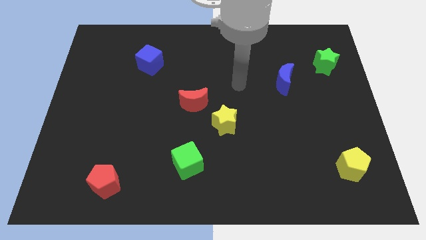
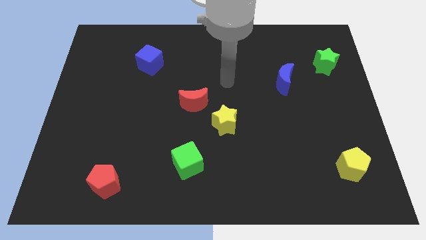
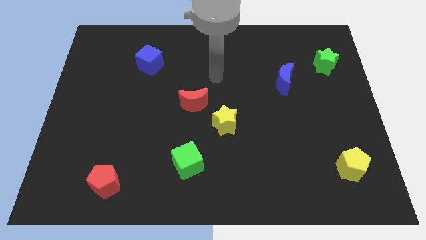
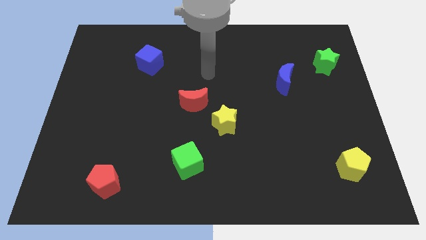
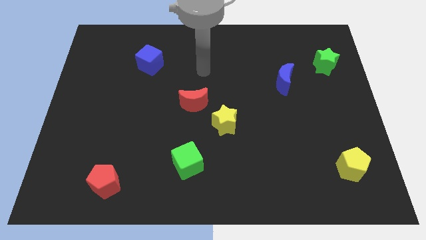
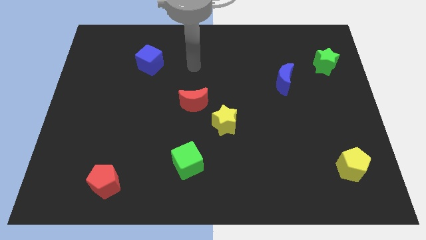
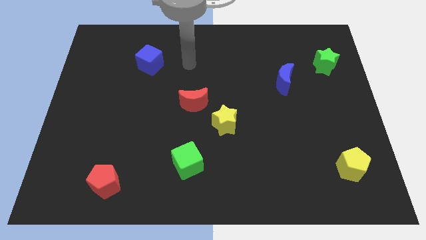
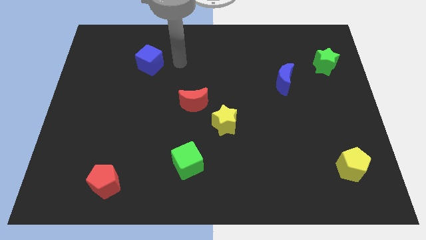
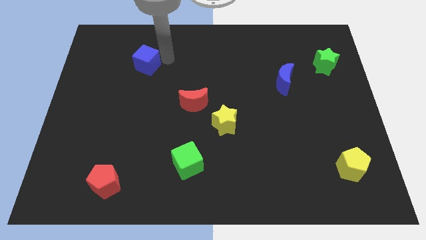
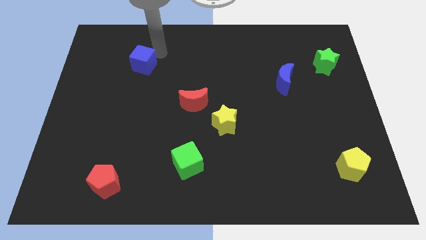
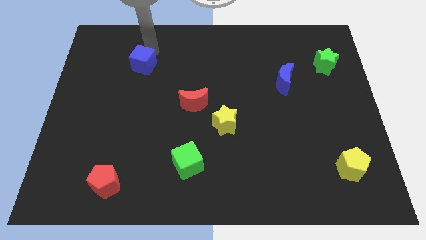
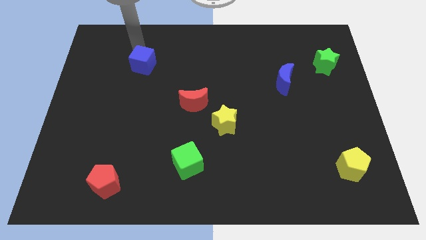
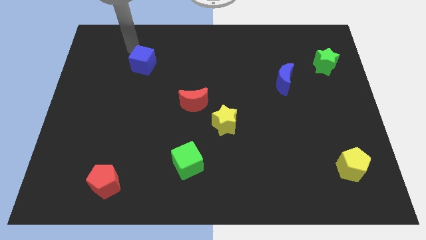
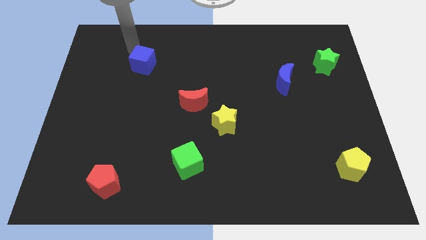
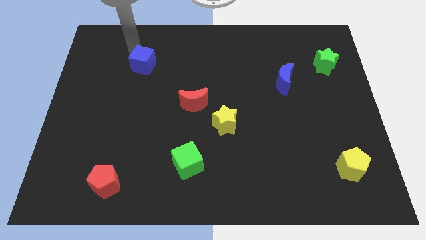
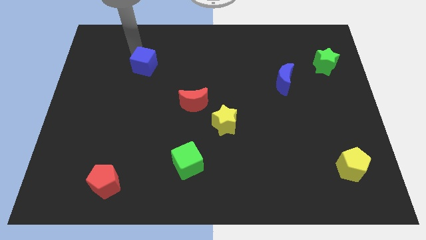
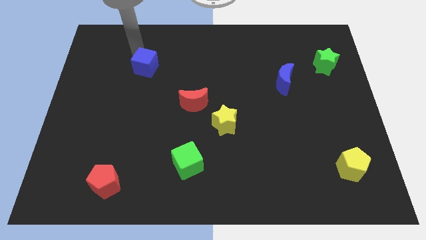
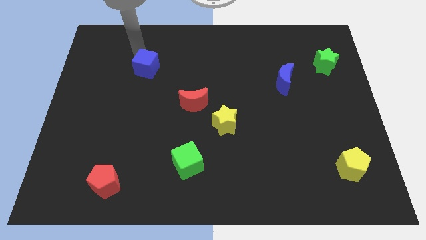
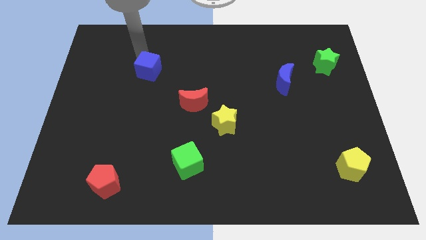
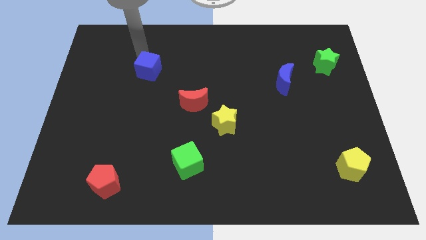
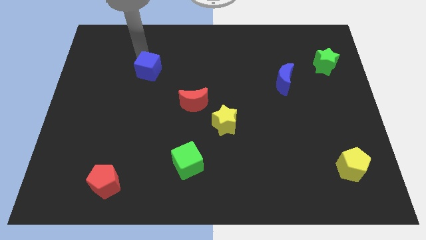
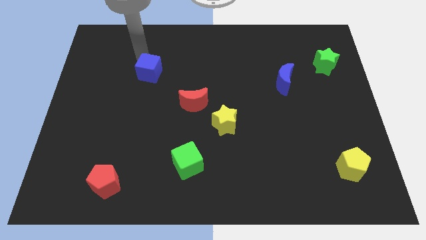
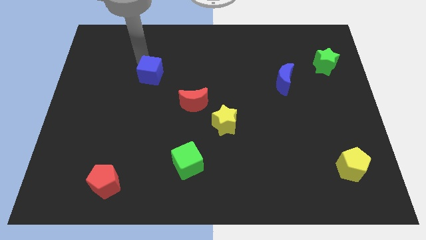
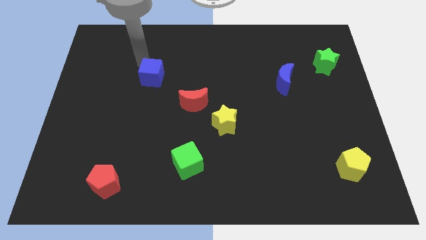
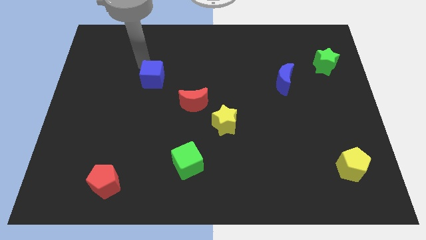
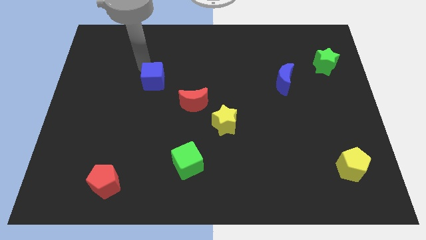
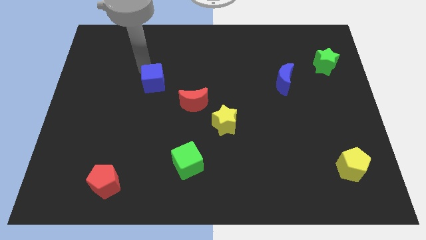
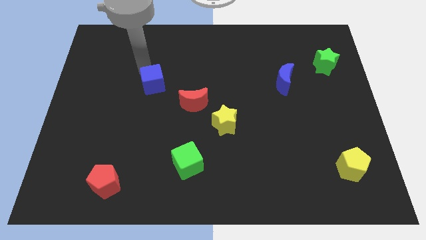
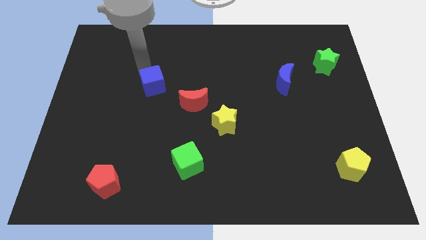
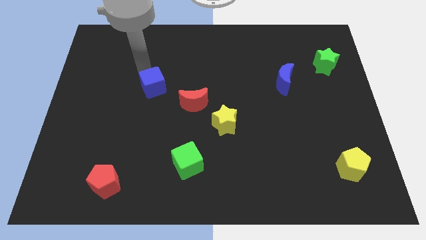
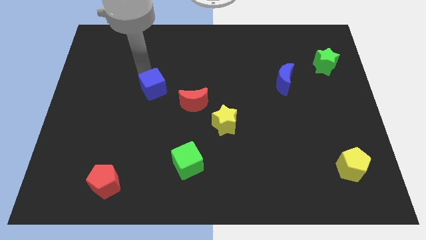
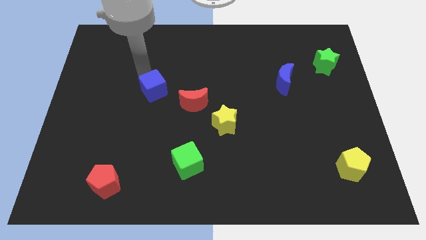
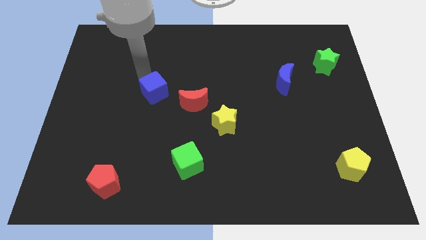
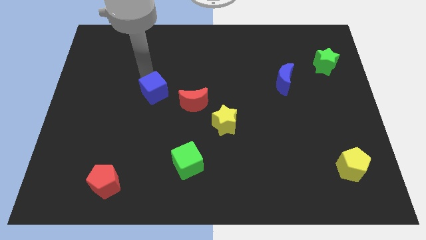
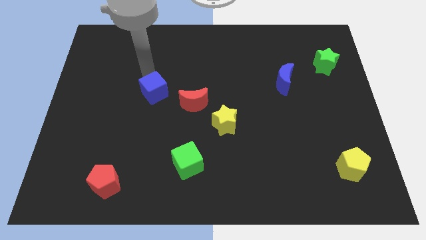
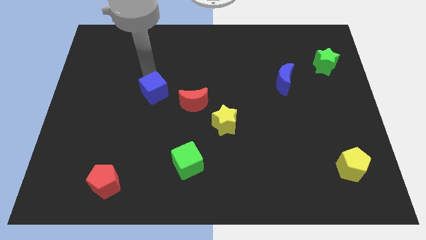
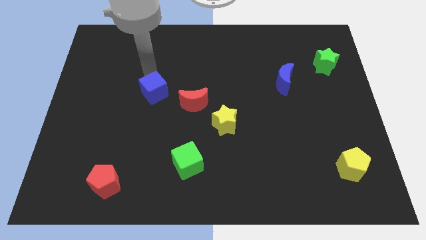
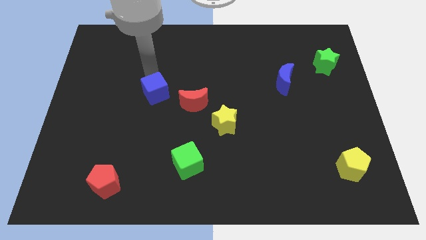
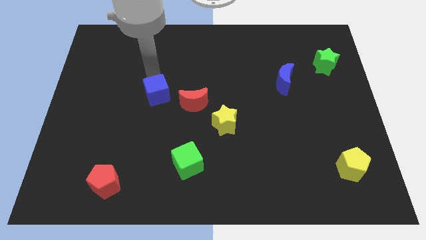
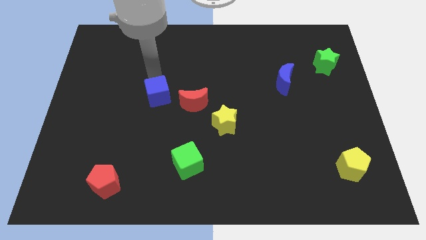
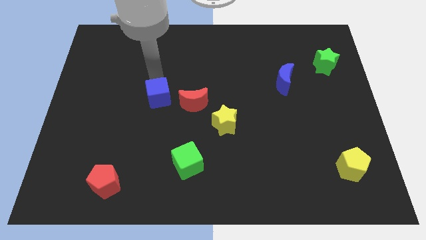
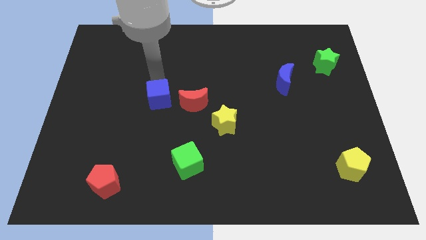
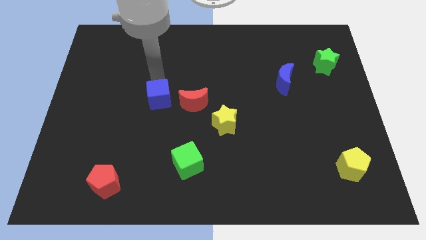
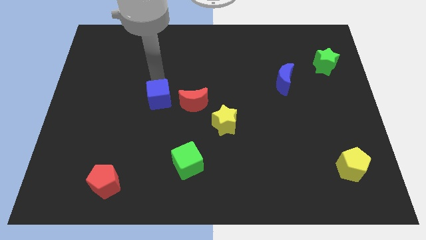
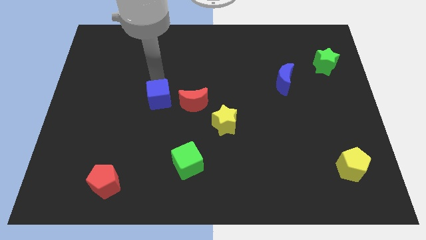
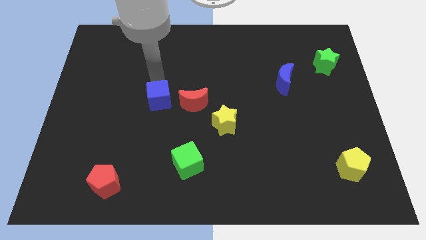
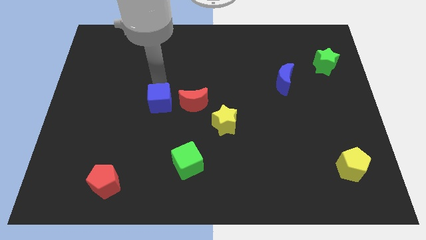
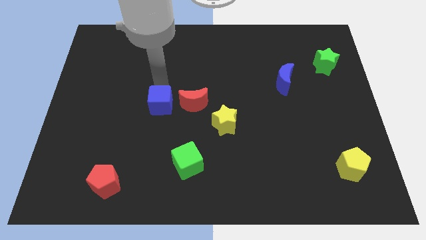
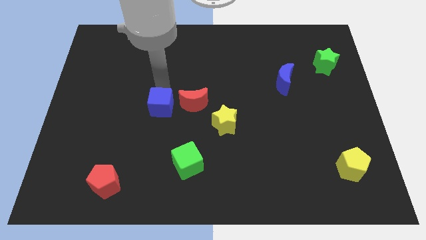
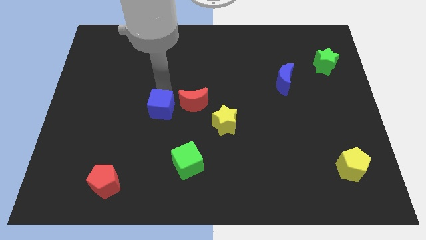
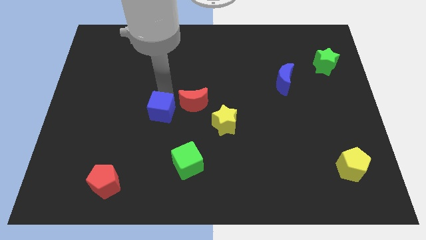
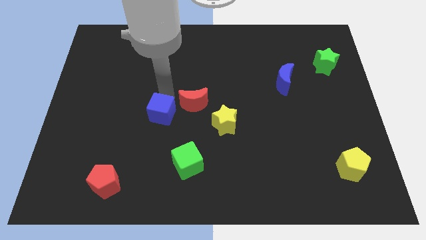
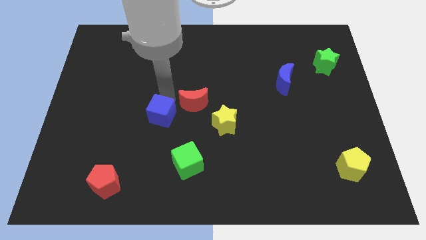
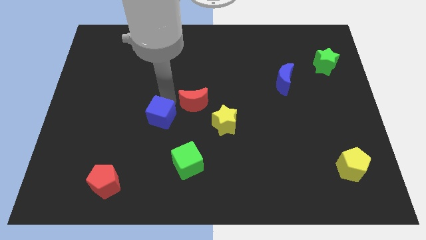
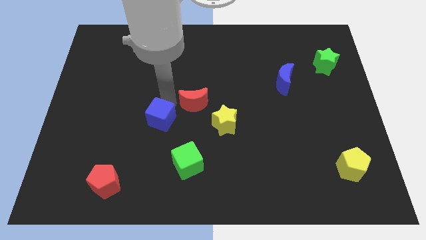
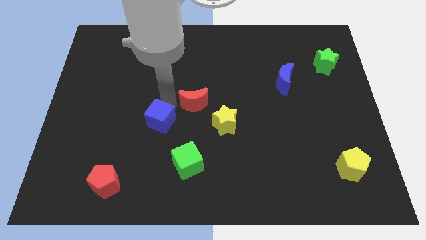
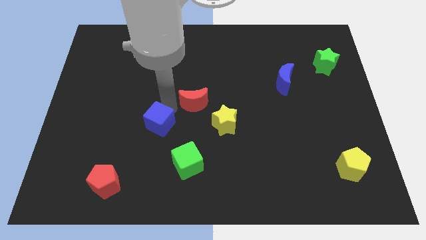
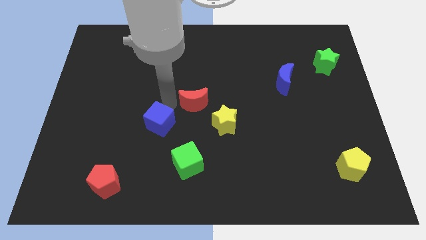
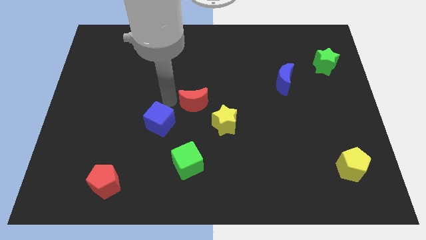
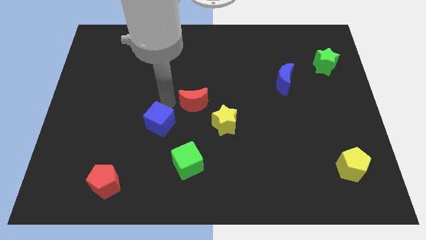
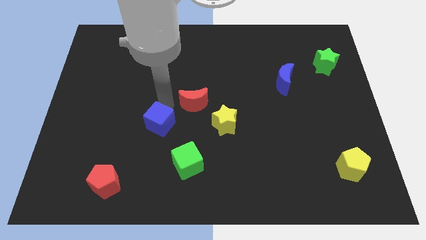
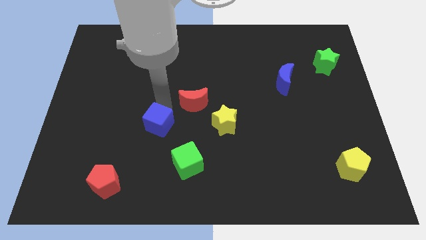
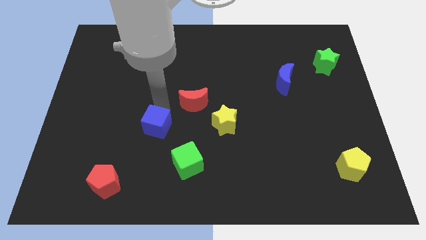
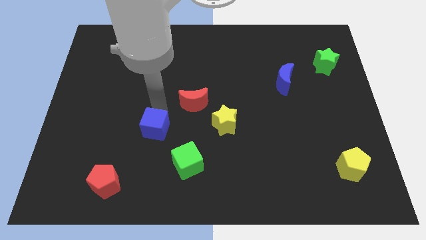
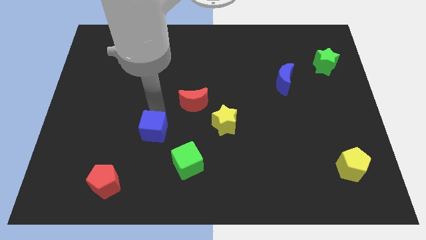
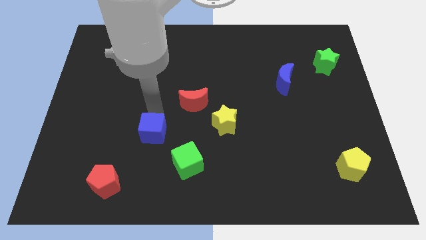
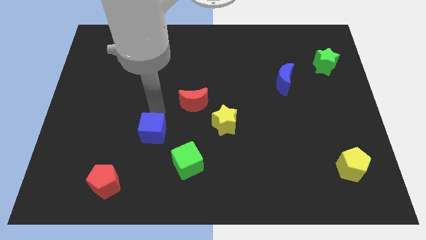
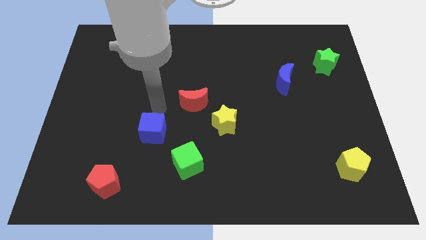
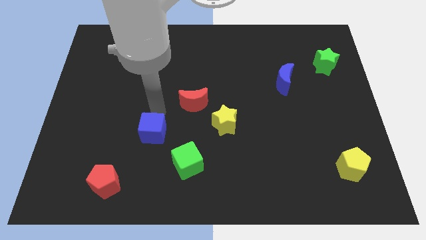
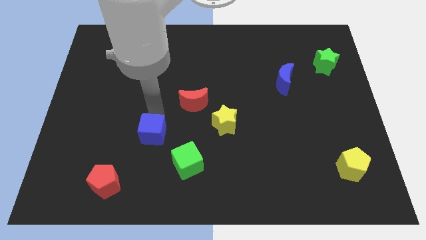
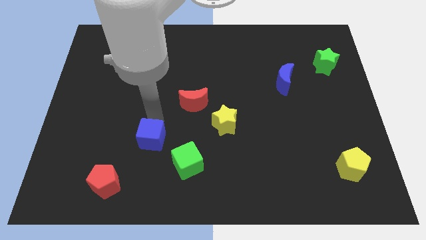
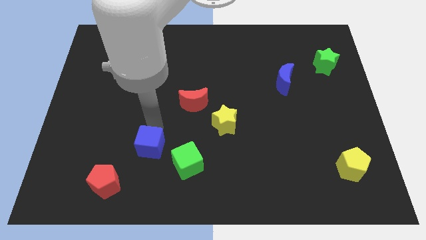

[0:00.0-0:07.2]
put the blue cube just left of the green cube
